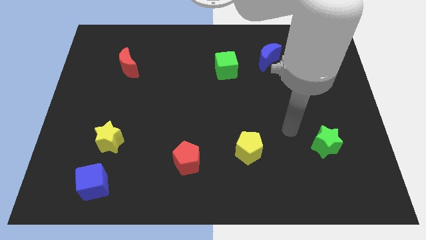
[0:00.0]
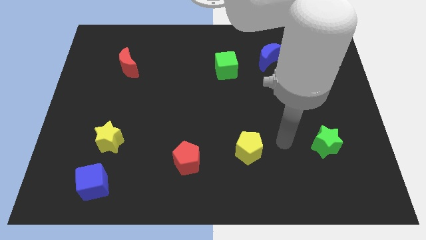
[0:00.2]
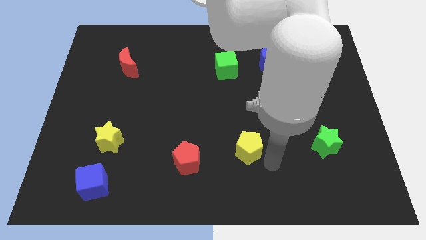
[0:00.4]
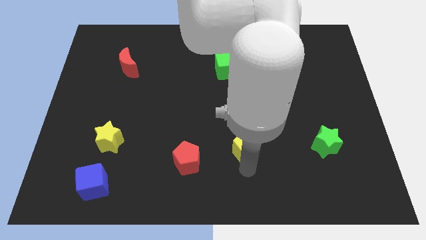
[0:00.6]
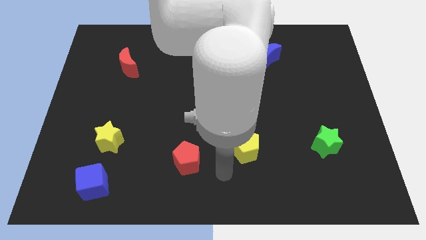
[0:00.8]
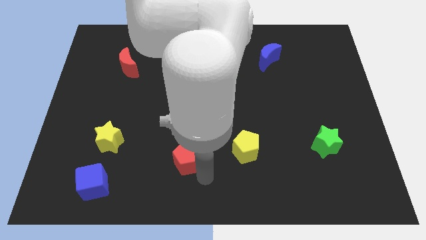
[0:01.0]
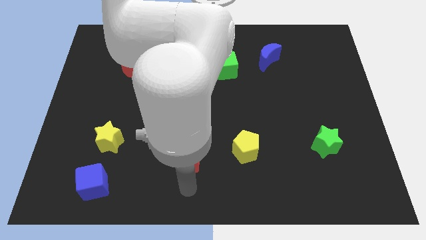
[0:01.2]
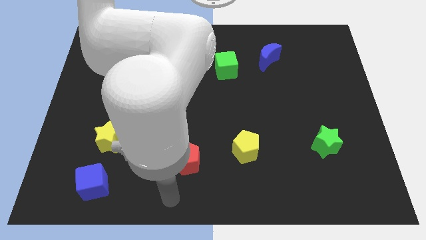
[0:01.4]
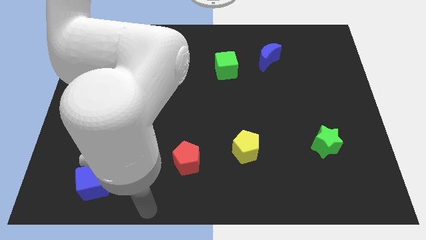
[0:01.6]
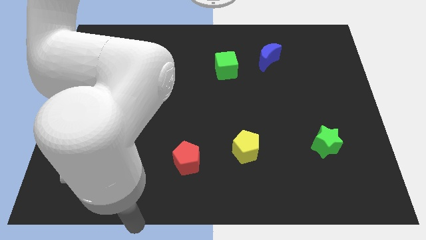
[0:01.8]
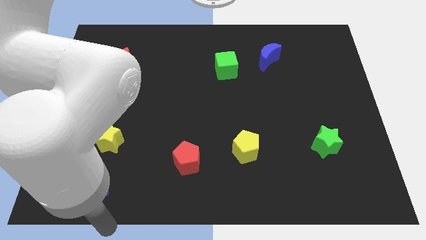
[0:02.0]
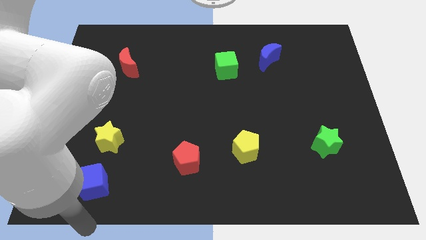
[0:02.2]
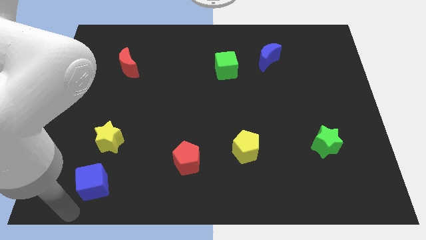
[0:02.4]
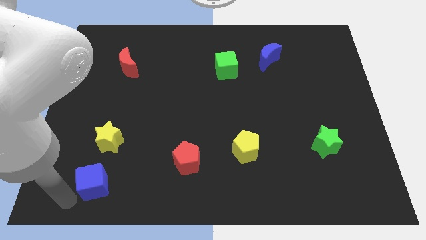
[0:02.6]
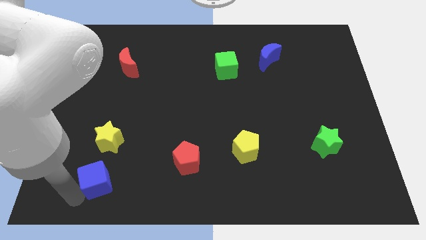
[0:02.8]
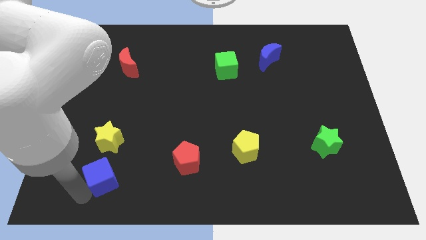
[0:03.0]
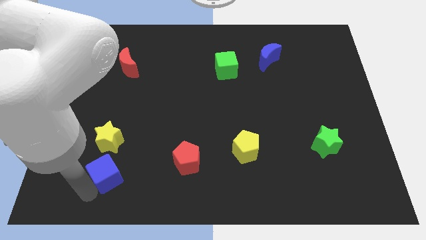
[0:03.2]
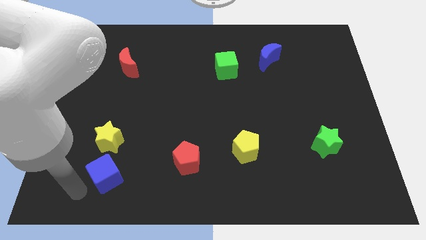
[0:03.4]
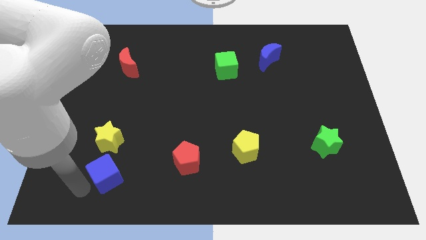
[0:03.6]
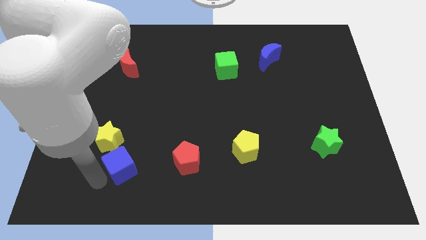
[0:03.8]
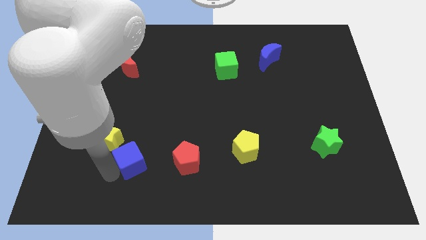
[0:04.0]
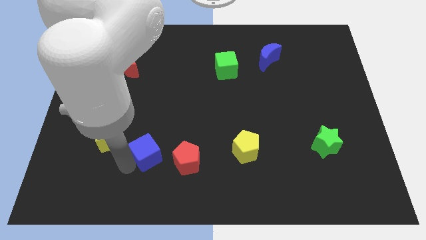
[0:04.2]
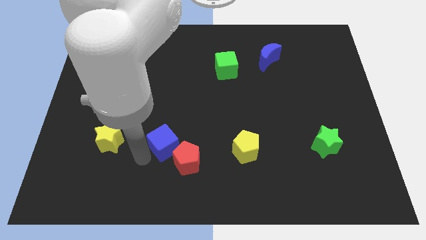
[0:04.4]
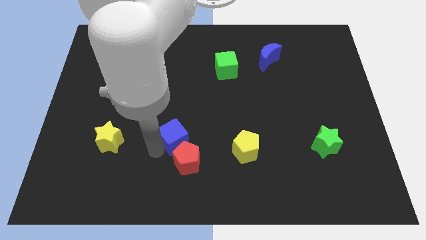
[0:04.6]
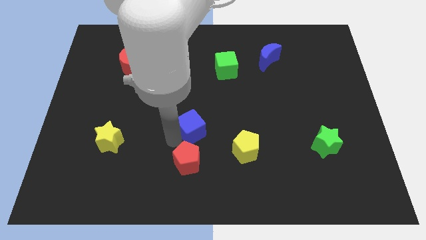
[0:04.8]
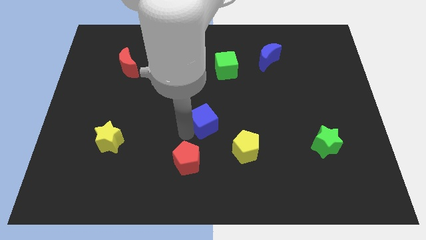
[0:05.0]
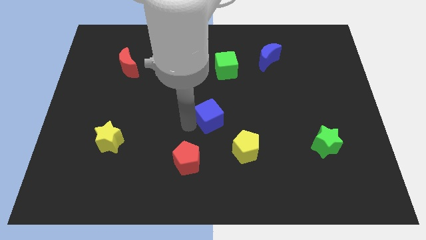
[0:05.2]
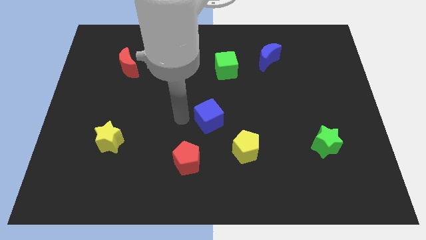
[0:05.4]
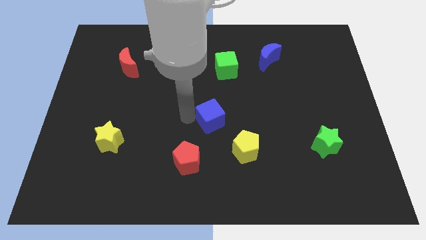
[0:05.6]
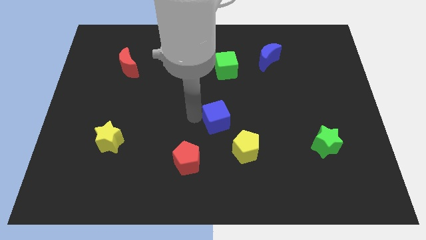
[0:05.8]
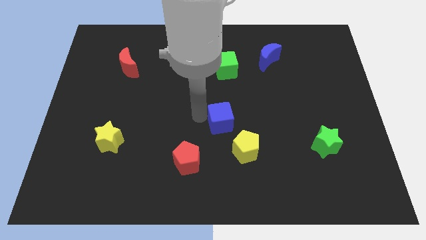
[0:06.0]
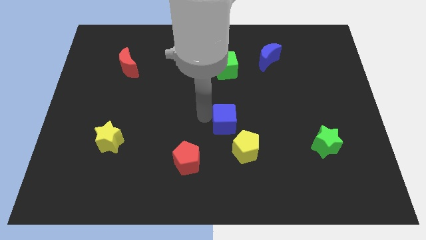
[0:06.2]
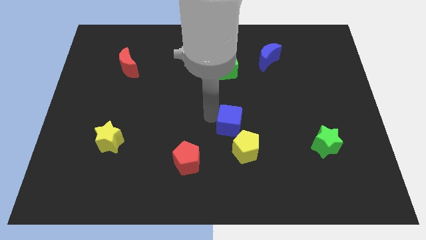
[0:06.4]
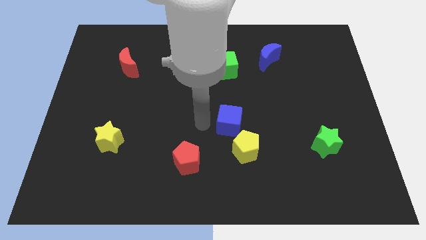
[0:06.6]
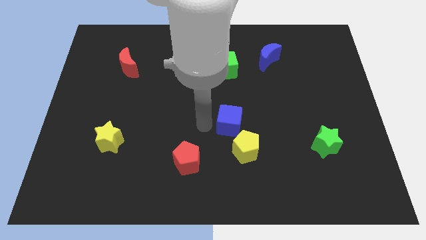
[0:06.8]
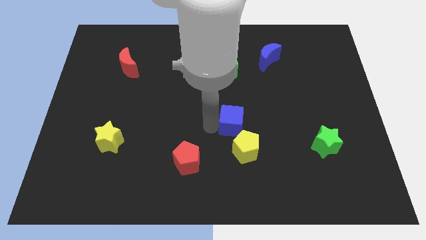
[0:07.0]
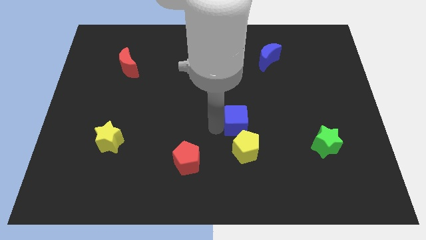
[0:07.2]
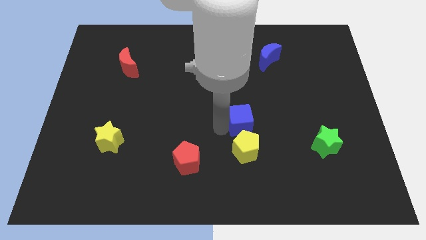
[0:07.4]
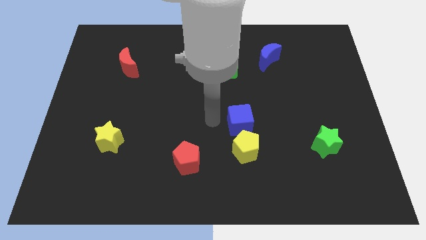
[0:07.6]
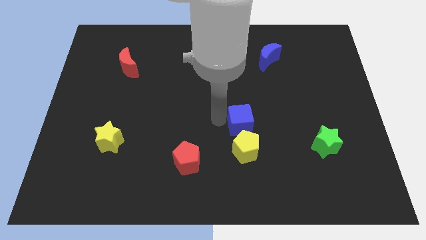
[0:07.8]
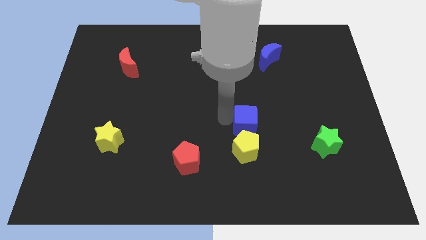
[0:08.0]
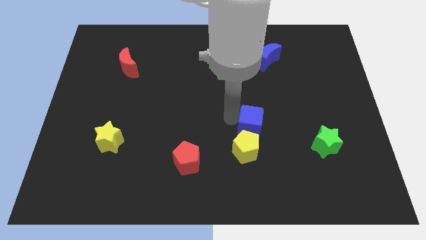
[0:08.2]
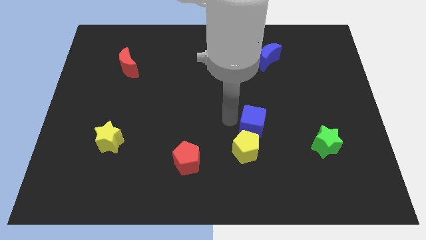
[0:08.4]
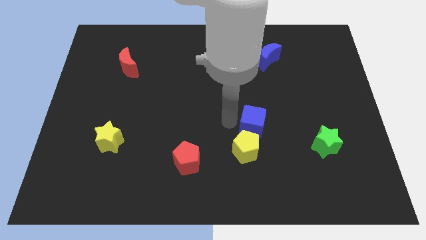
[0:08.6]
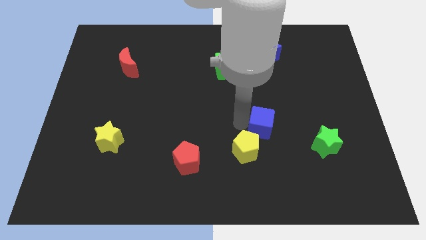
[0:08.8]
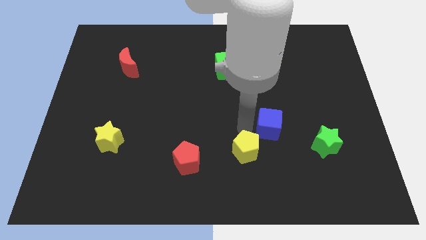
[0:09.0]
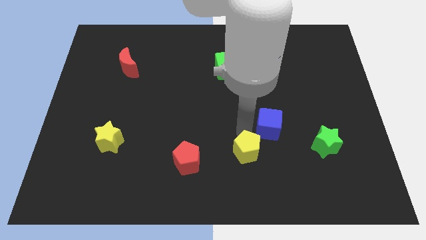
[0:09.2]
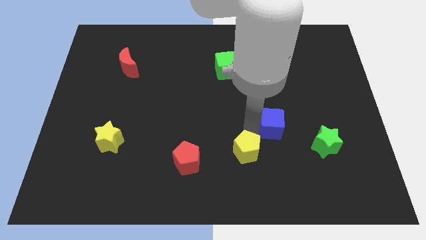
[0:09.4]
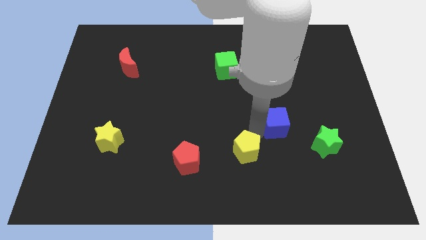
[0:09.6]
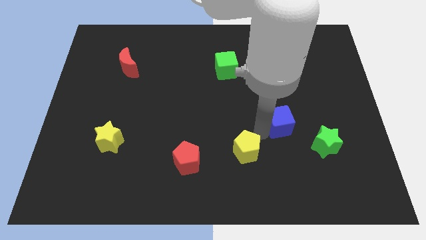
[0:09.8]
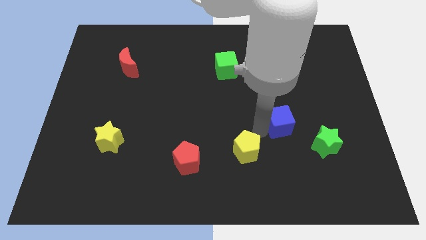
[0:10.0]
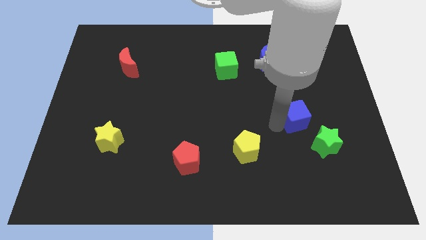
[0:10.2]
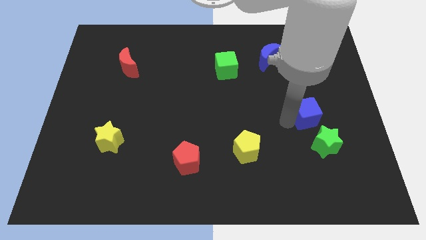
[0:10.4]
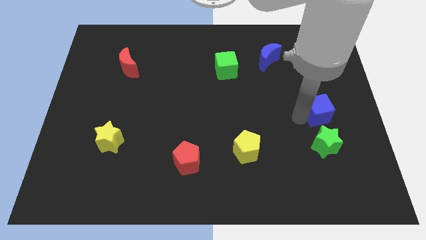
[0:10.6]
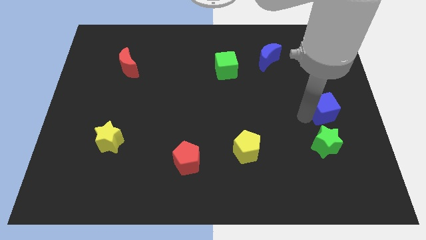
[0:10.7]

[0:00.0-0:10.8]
slide the blue cube to the right side of the board

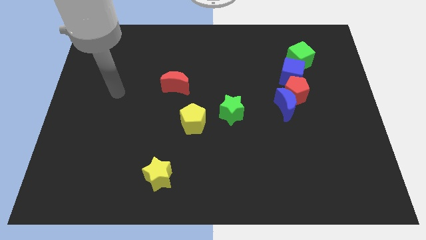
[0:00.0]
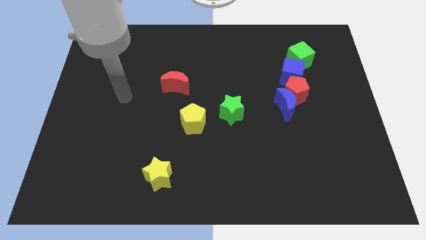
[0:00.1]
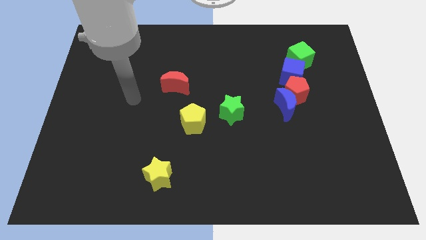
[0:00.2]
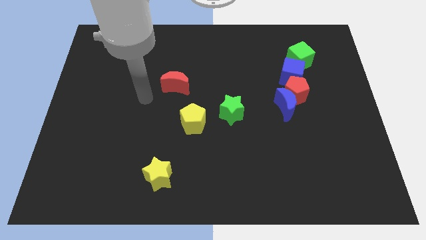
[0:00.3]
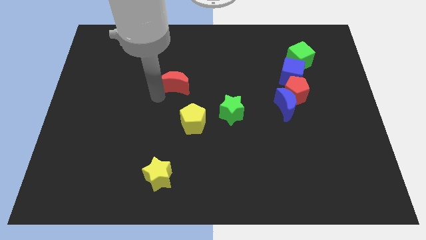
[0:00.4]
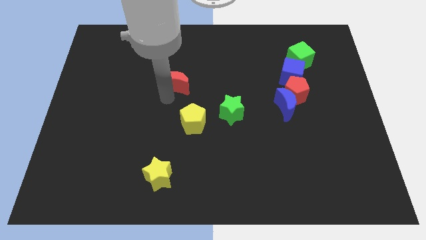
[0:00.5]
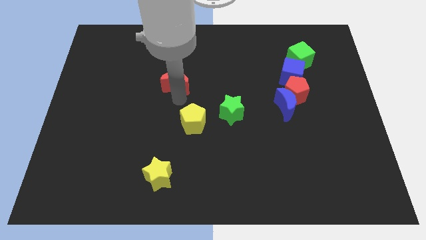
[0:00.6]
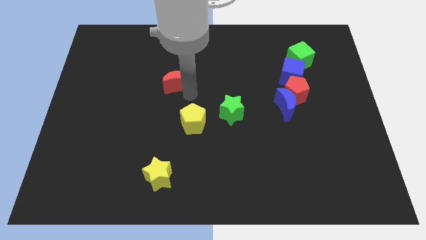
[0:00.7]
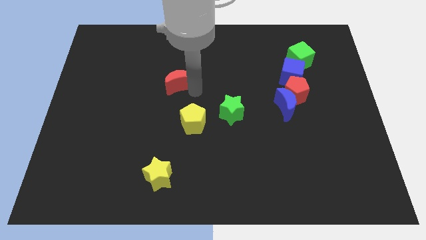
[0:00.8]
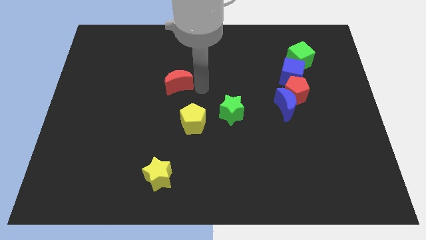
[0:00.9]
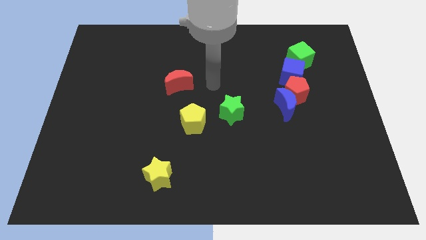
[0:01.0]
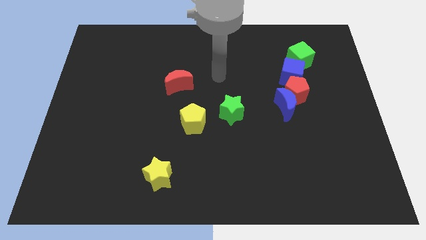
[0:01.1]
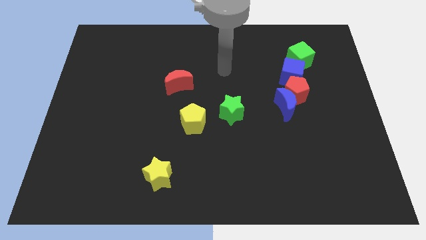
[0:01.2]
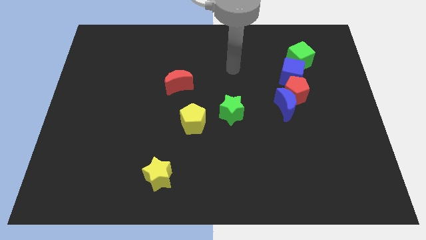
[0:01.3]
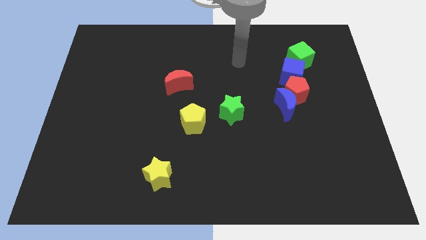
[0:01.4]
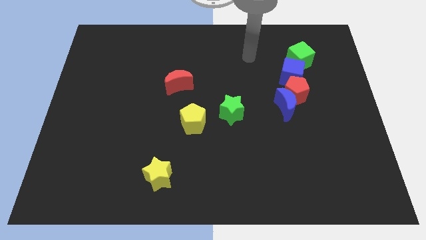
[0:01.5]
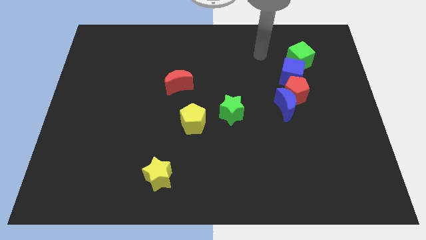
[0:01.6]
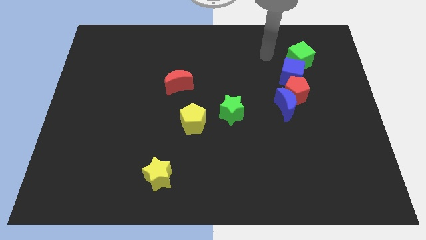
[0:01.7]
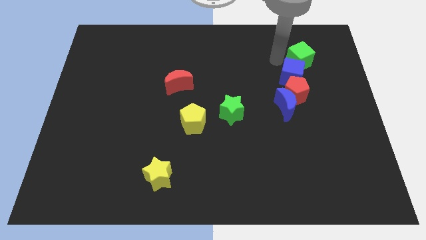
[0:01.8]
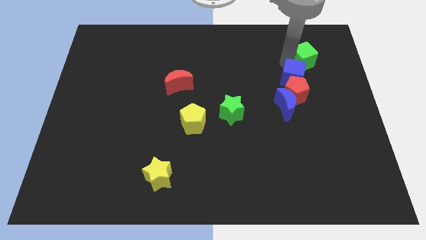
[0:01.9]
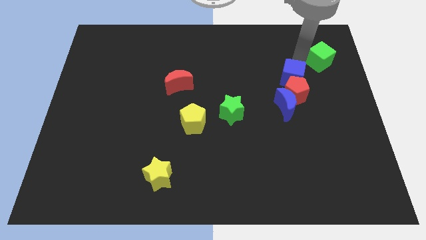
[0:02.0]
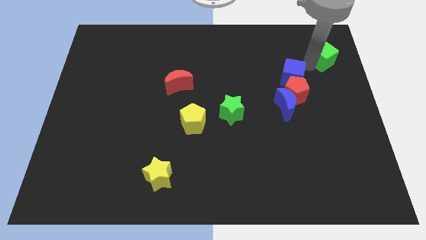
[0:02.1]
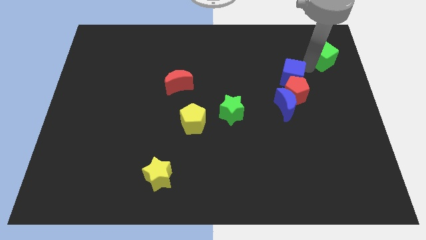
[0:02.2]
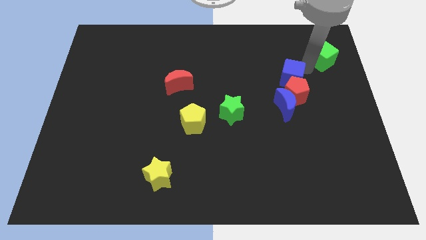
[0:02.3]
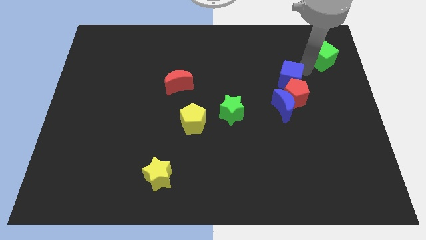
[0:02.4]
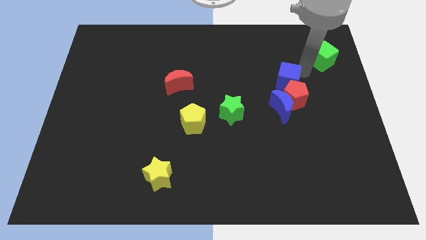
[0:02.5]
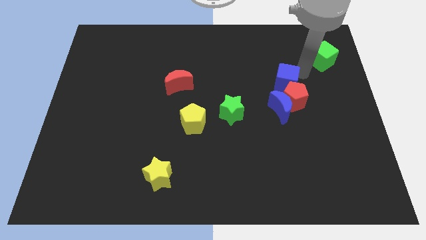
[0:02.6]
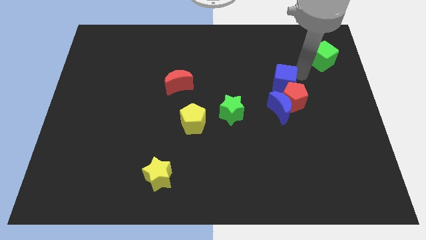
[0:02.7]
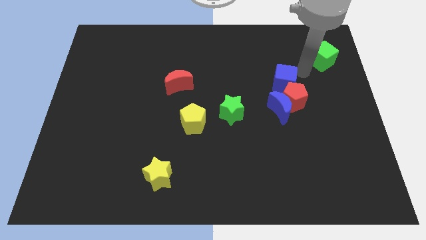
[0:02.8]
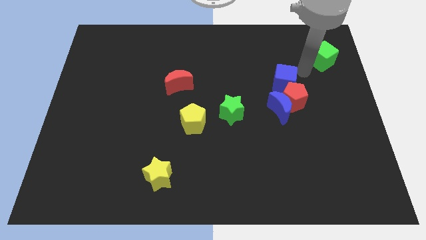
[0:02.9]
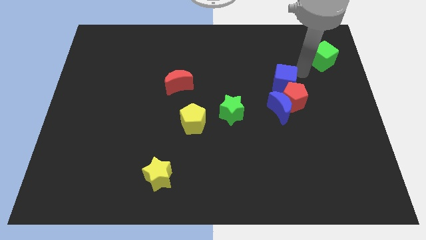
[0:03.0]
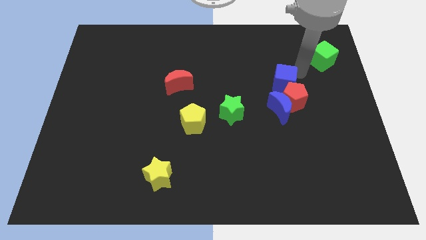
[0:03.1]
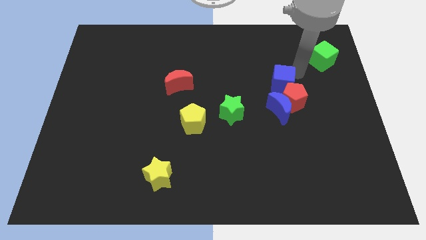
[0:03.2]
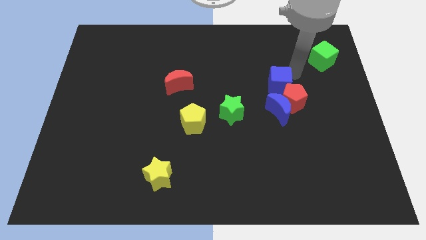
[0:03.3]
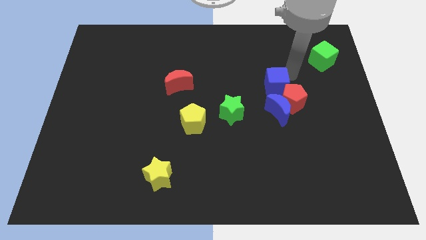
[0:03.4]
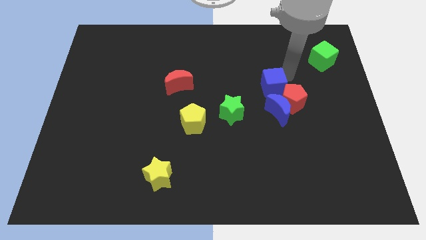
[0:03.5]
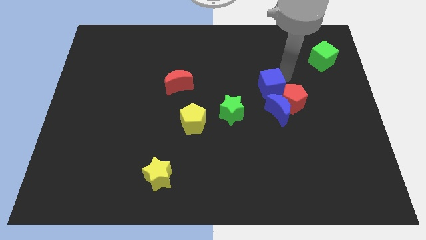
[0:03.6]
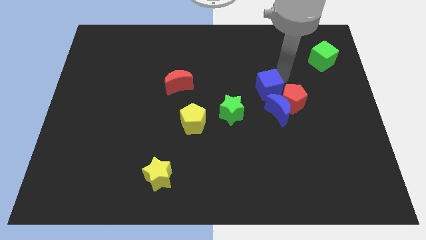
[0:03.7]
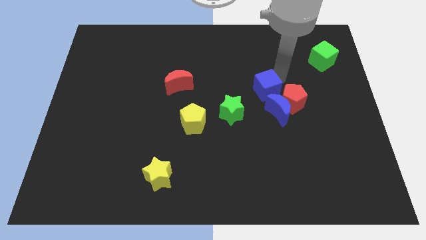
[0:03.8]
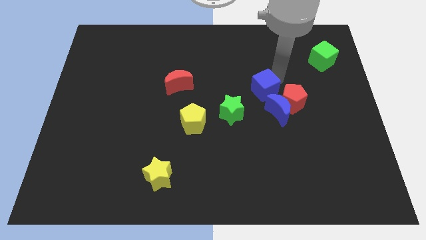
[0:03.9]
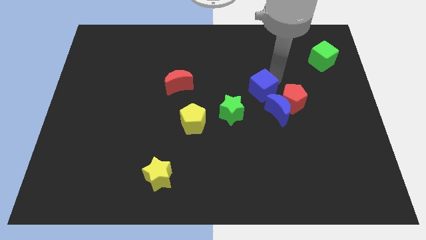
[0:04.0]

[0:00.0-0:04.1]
push the blue cube to the middle of the board
